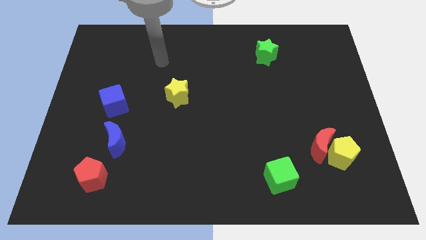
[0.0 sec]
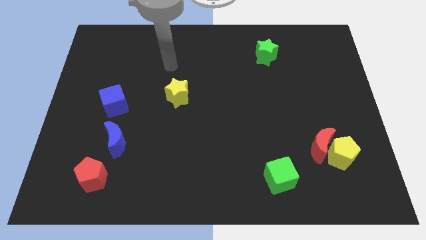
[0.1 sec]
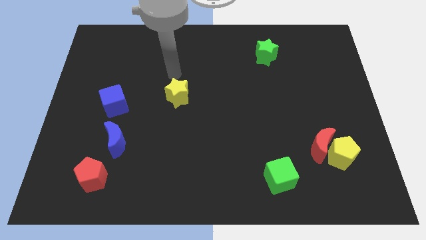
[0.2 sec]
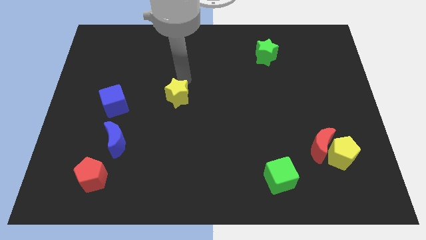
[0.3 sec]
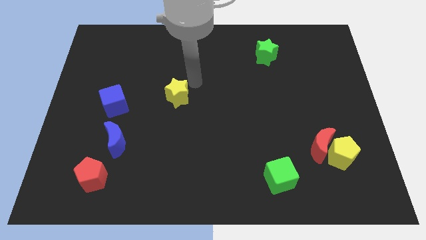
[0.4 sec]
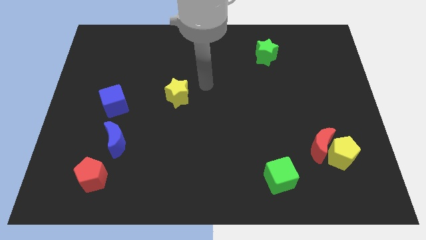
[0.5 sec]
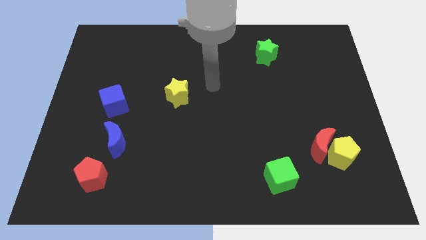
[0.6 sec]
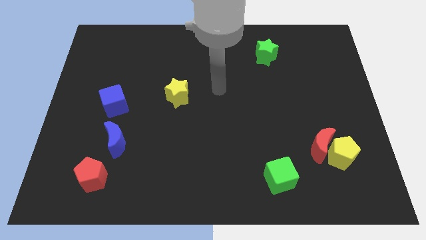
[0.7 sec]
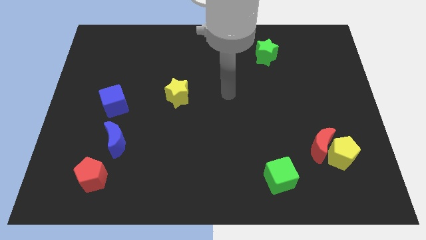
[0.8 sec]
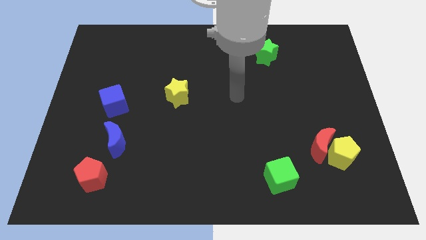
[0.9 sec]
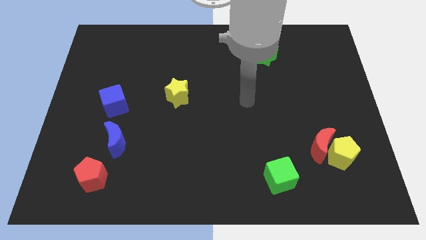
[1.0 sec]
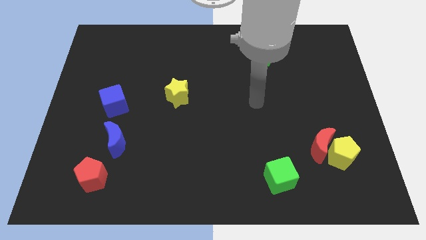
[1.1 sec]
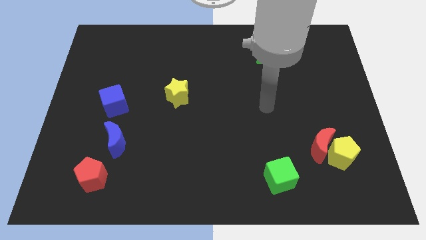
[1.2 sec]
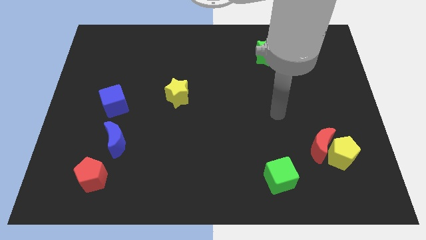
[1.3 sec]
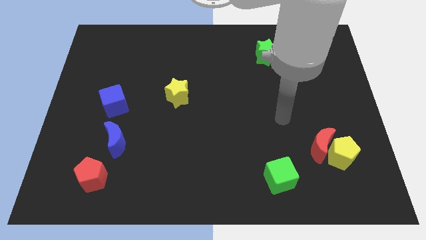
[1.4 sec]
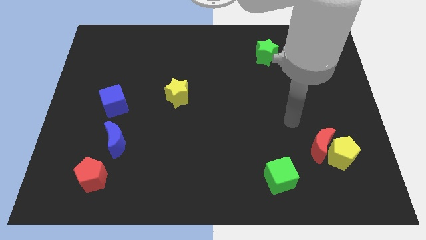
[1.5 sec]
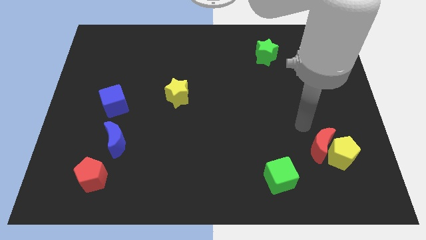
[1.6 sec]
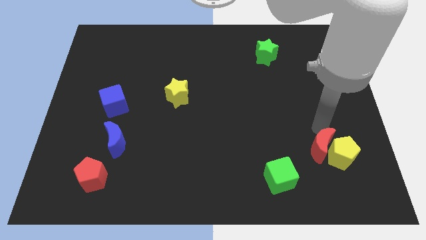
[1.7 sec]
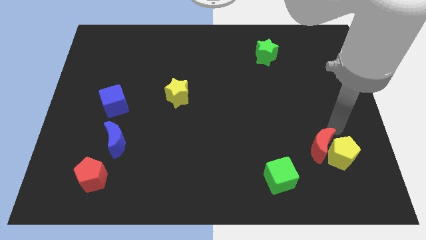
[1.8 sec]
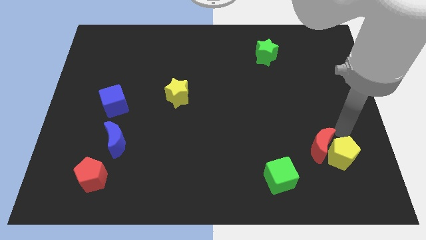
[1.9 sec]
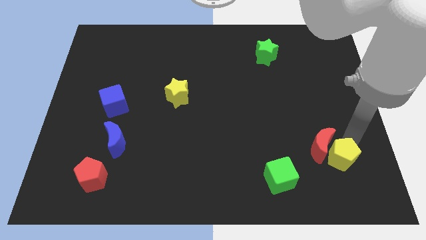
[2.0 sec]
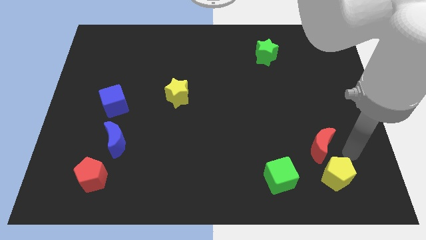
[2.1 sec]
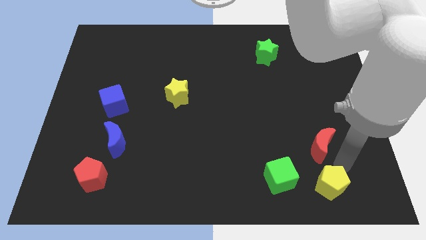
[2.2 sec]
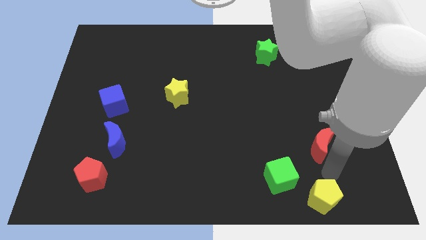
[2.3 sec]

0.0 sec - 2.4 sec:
pull the red moon apart from the yellow pentagon

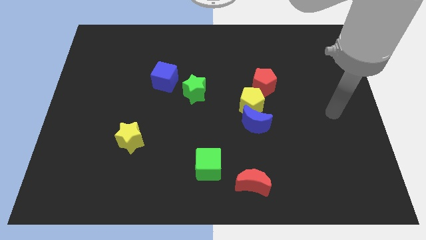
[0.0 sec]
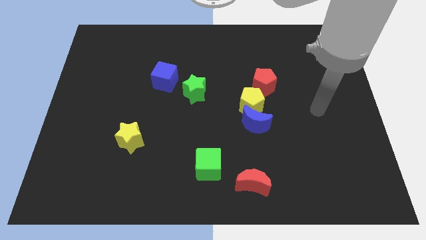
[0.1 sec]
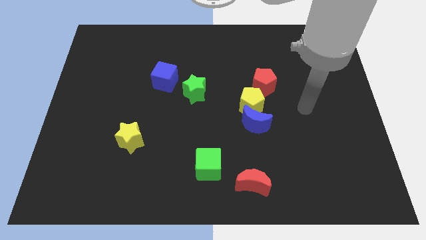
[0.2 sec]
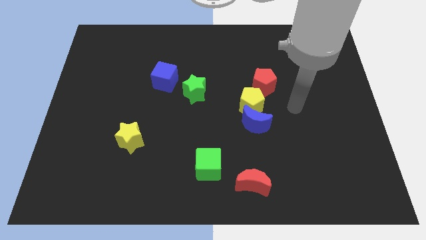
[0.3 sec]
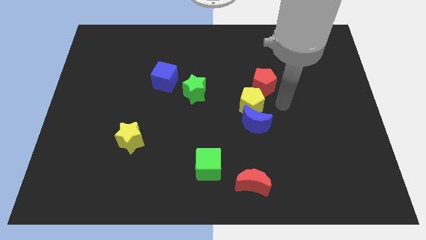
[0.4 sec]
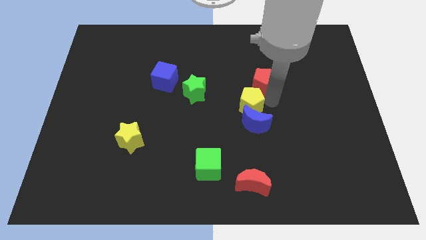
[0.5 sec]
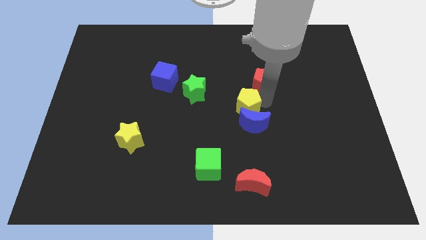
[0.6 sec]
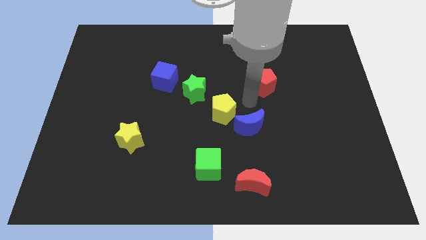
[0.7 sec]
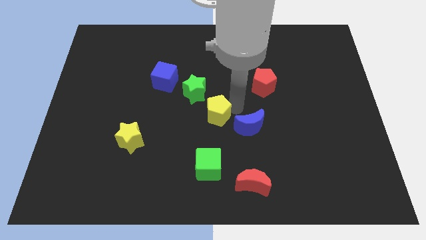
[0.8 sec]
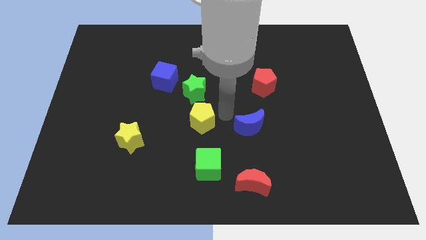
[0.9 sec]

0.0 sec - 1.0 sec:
separate the blue moon from the yellow pentagon

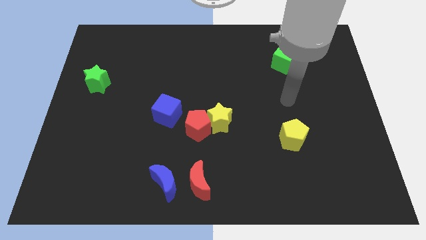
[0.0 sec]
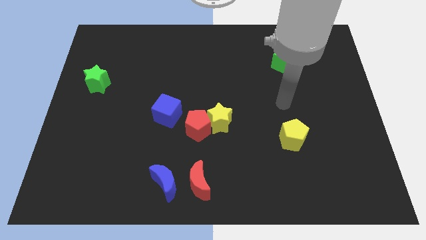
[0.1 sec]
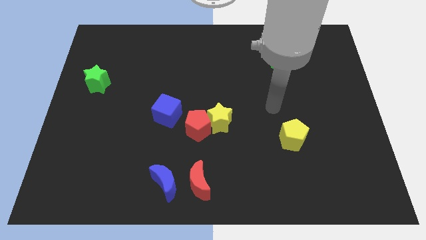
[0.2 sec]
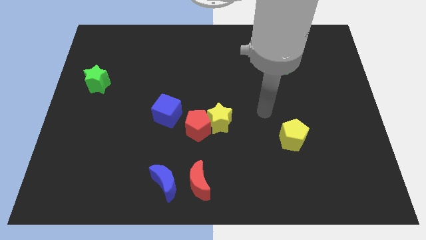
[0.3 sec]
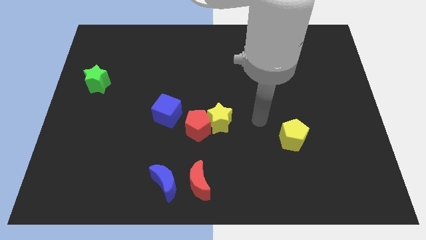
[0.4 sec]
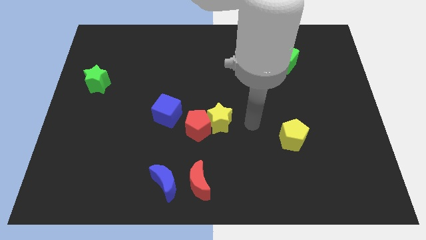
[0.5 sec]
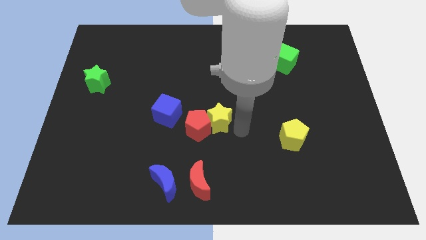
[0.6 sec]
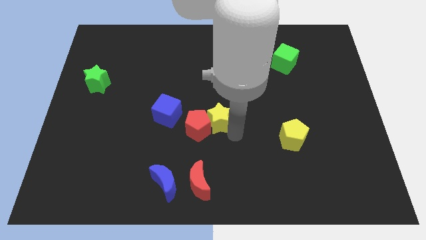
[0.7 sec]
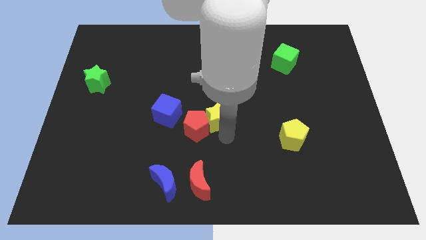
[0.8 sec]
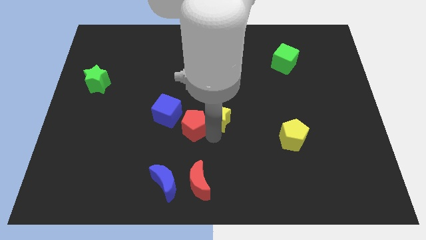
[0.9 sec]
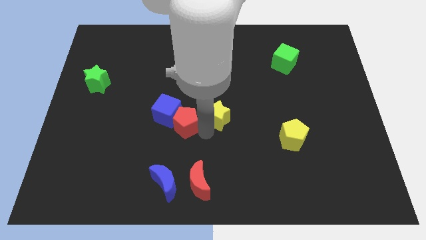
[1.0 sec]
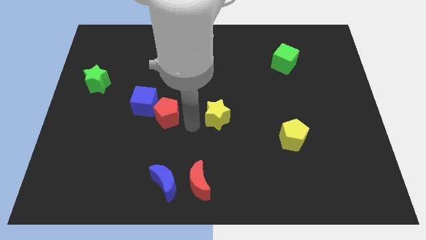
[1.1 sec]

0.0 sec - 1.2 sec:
move the yellow star away from the red pentagon

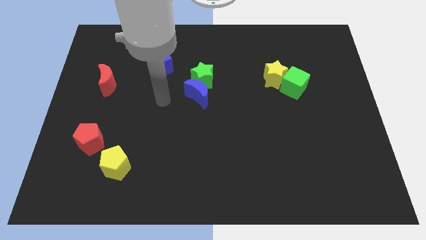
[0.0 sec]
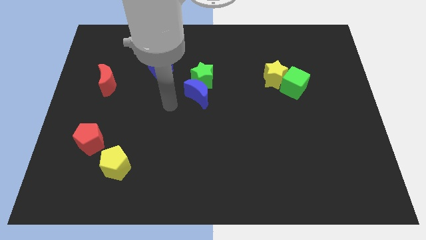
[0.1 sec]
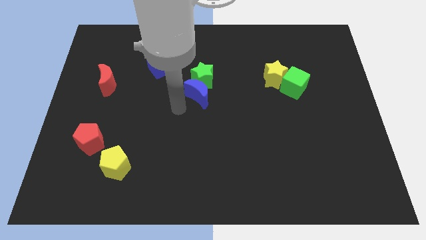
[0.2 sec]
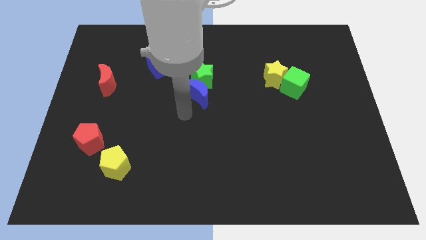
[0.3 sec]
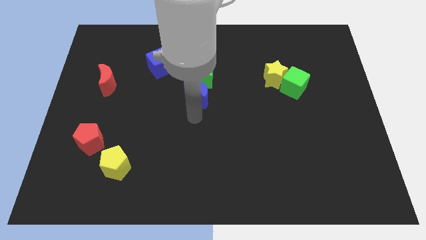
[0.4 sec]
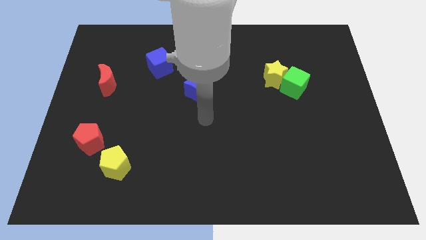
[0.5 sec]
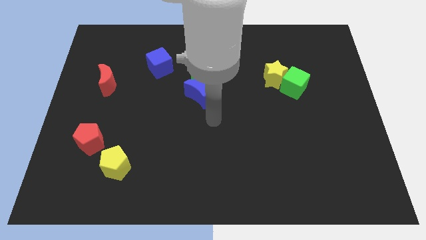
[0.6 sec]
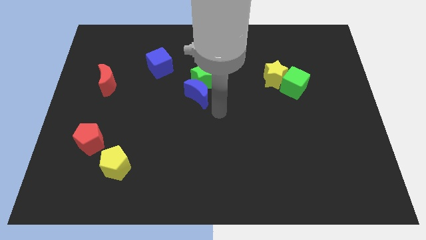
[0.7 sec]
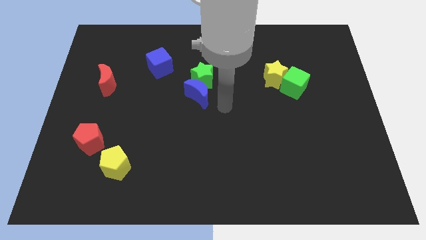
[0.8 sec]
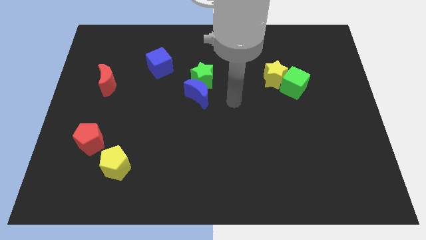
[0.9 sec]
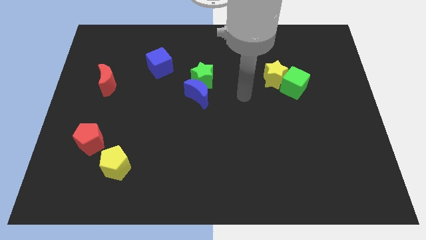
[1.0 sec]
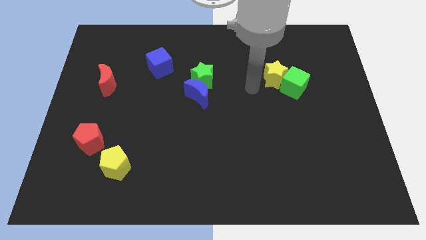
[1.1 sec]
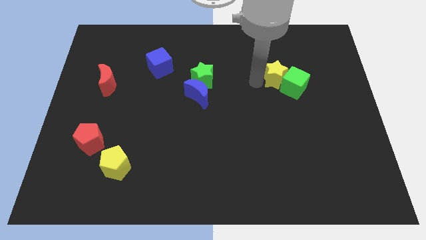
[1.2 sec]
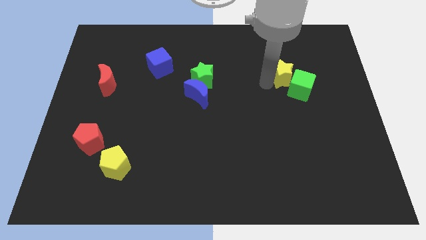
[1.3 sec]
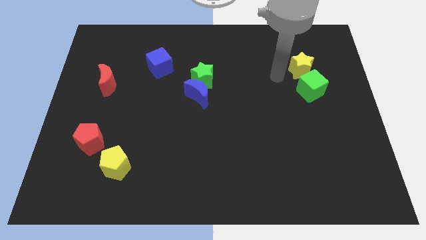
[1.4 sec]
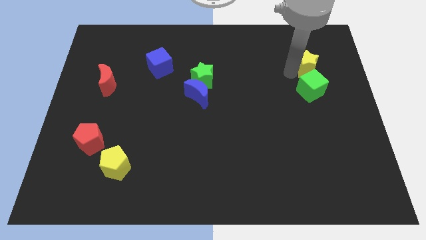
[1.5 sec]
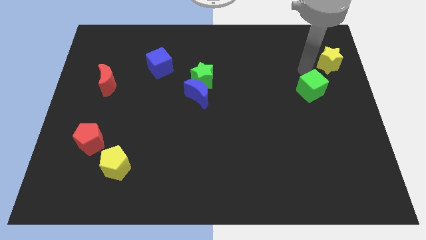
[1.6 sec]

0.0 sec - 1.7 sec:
pull the green cube apart from the yellow star

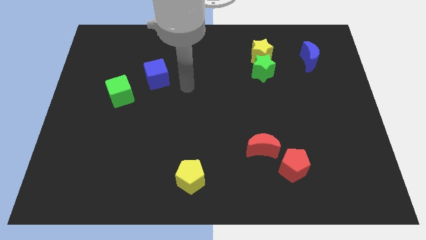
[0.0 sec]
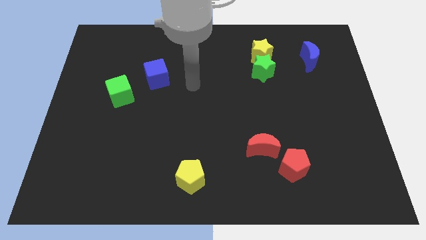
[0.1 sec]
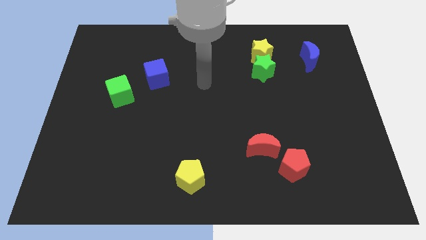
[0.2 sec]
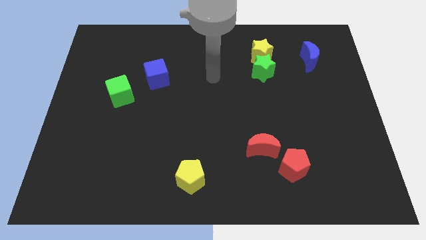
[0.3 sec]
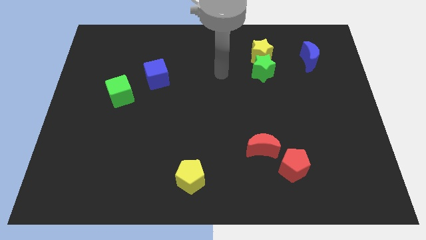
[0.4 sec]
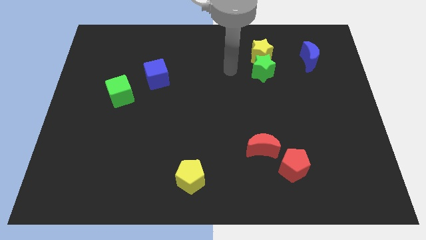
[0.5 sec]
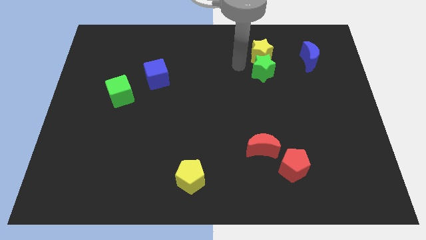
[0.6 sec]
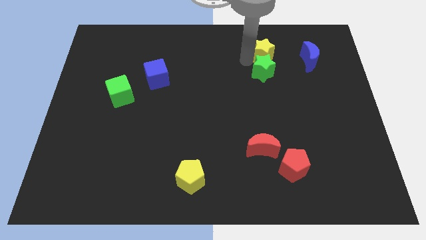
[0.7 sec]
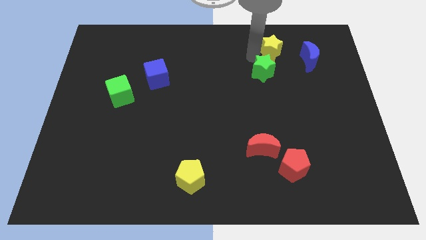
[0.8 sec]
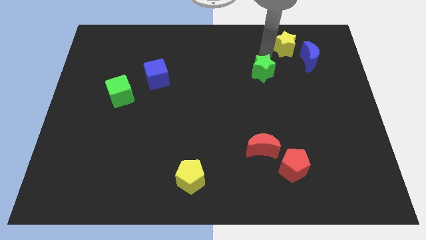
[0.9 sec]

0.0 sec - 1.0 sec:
pull the green star apart from the yellow star

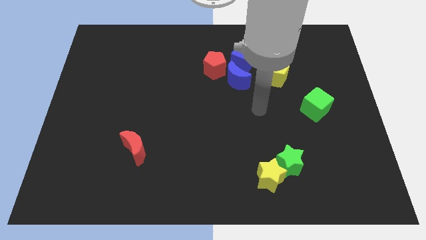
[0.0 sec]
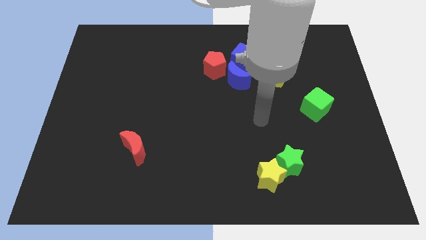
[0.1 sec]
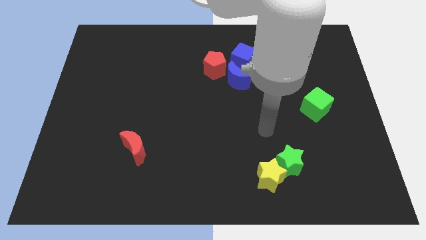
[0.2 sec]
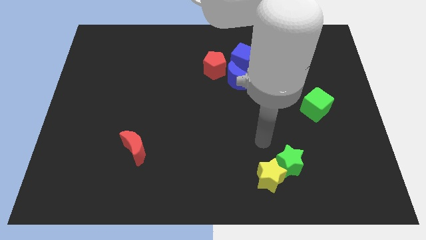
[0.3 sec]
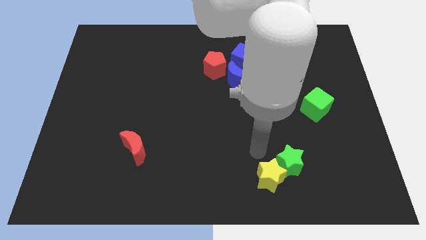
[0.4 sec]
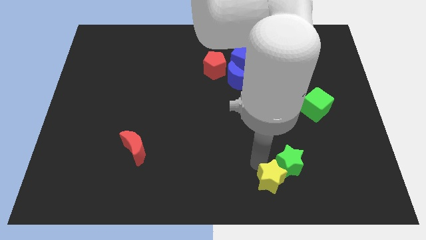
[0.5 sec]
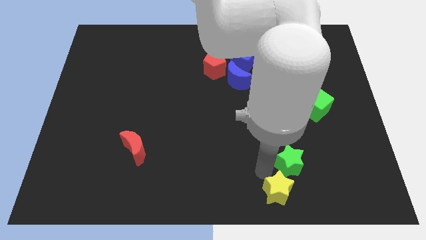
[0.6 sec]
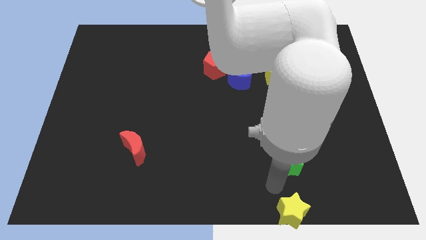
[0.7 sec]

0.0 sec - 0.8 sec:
separate the green star from the yellow star

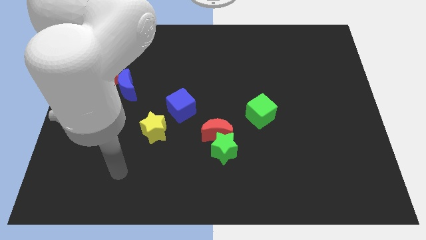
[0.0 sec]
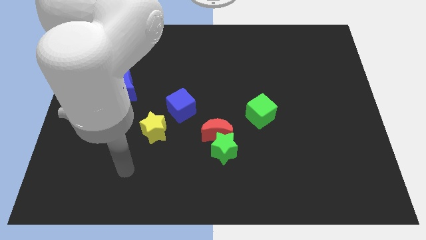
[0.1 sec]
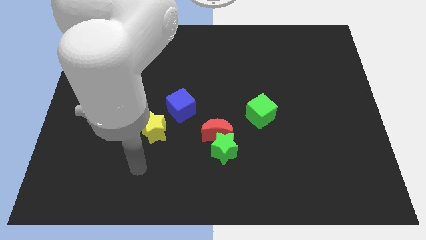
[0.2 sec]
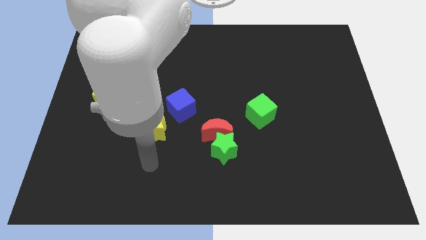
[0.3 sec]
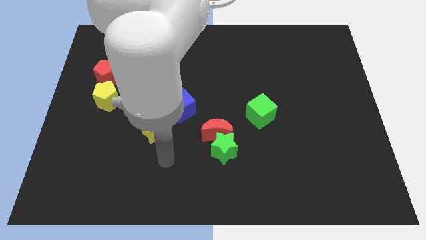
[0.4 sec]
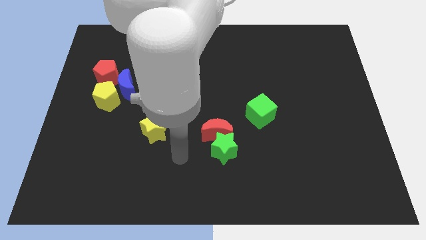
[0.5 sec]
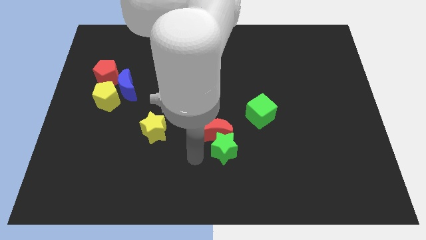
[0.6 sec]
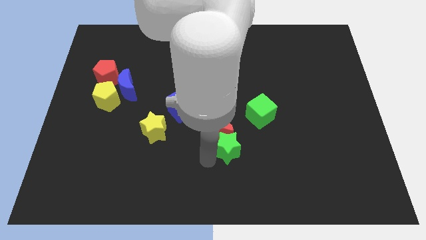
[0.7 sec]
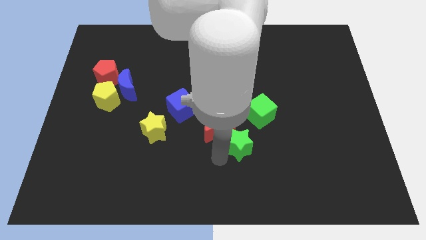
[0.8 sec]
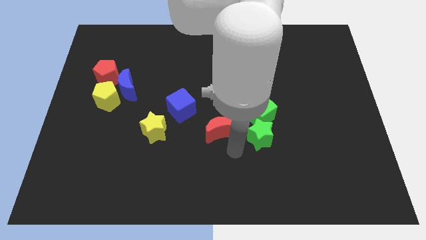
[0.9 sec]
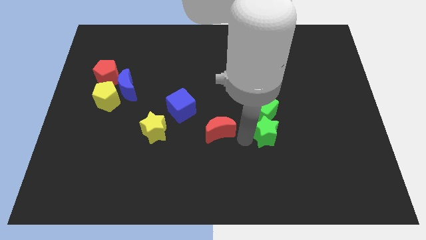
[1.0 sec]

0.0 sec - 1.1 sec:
move the red moon away from the green star
